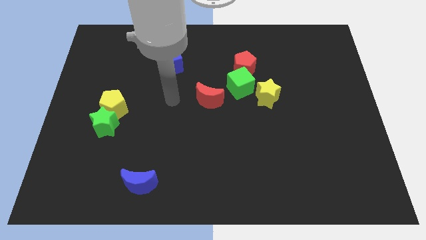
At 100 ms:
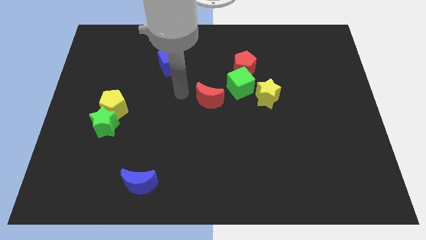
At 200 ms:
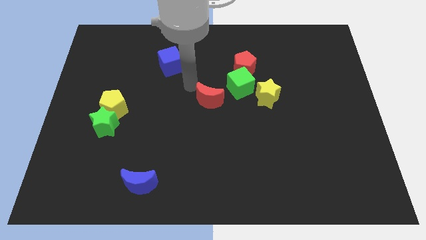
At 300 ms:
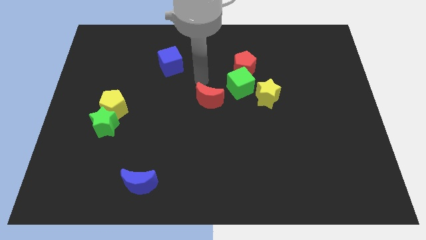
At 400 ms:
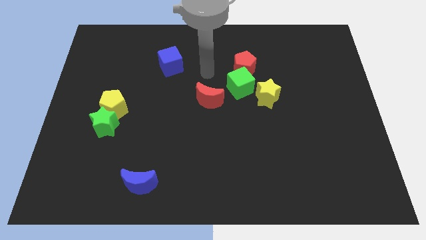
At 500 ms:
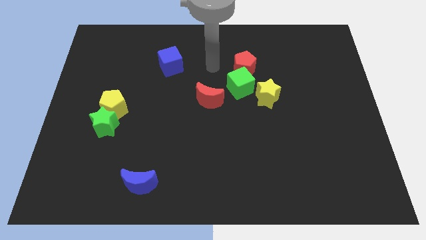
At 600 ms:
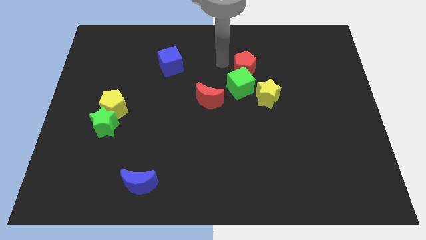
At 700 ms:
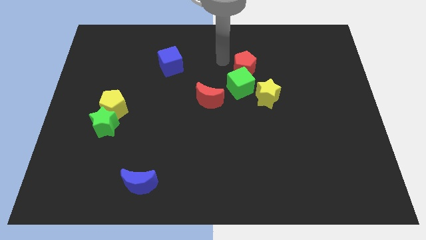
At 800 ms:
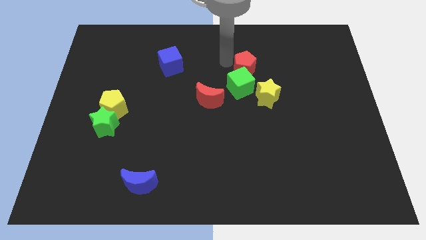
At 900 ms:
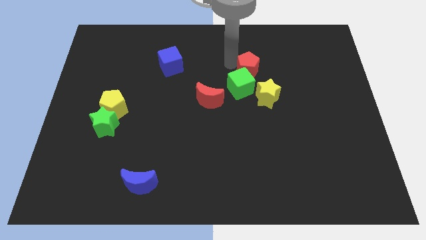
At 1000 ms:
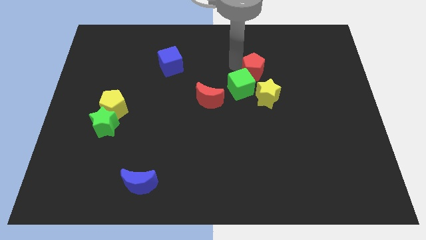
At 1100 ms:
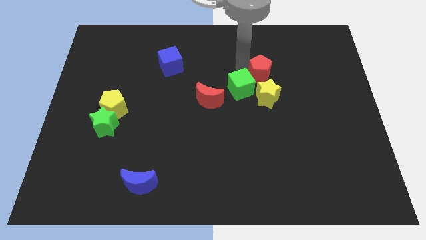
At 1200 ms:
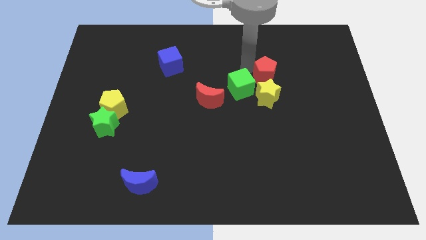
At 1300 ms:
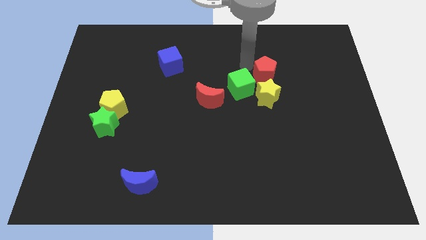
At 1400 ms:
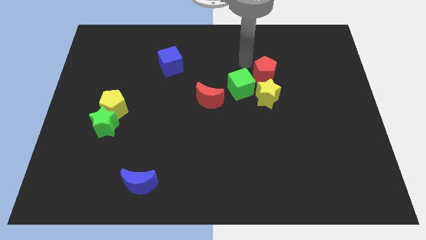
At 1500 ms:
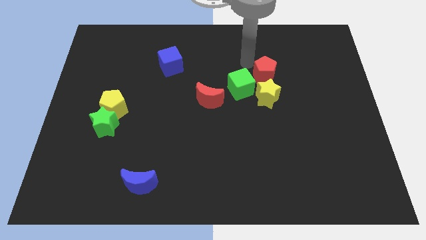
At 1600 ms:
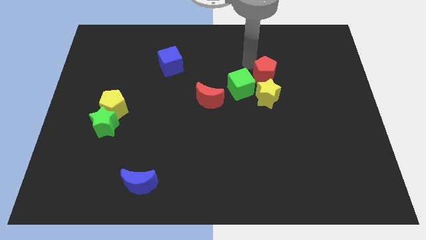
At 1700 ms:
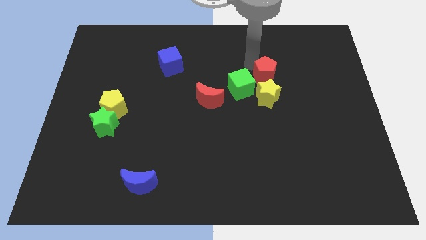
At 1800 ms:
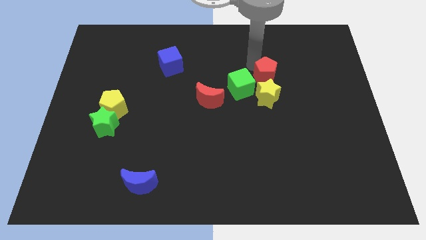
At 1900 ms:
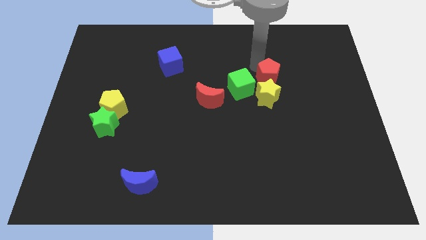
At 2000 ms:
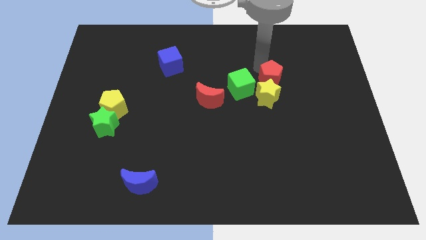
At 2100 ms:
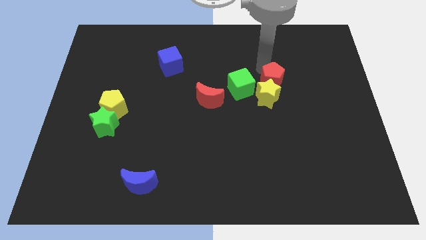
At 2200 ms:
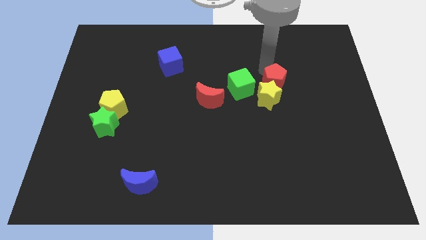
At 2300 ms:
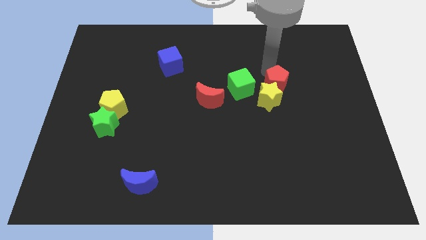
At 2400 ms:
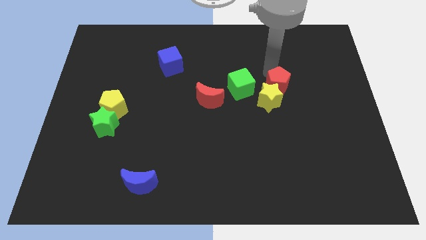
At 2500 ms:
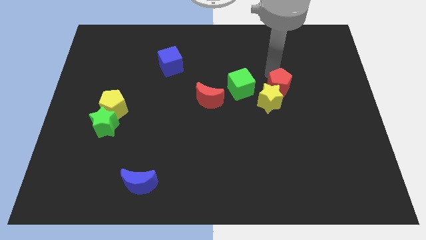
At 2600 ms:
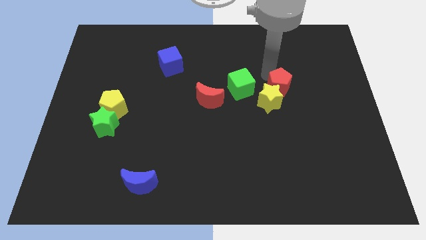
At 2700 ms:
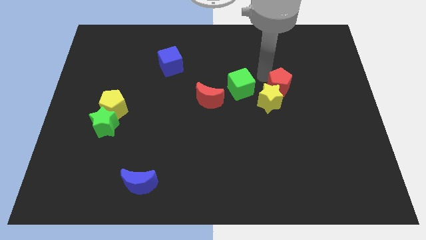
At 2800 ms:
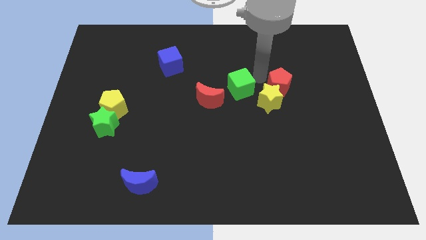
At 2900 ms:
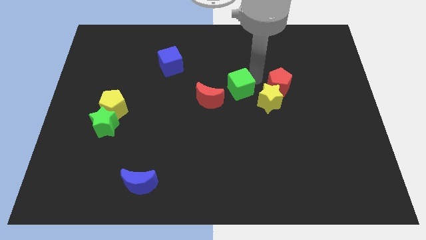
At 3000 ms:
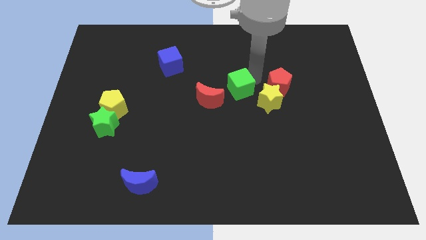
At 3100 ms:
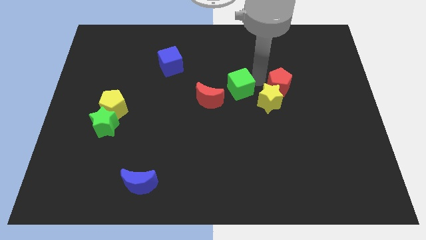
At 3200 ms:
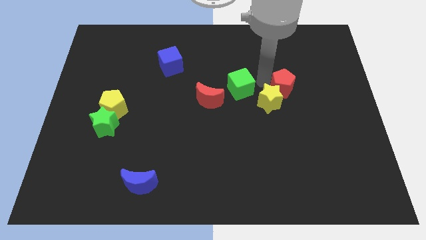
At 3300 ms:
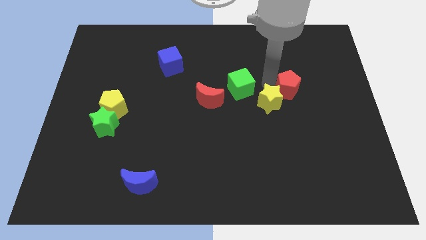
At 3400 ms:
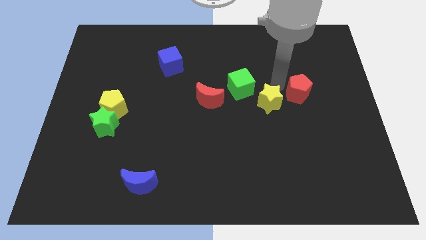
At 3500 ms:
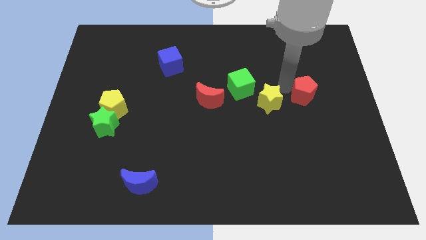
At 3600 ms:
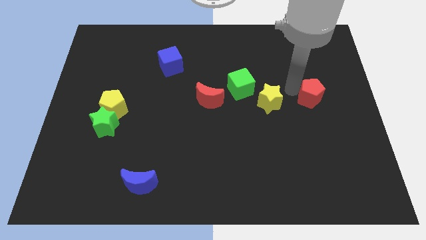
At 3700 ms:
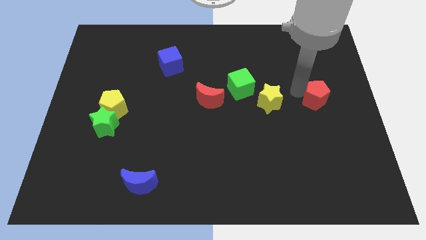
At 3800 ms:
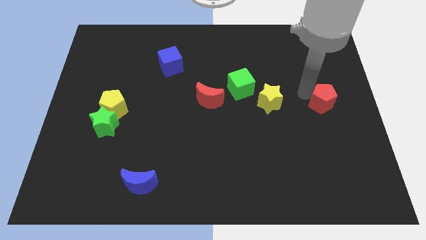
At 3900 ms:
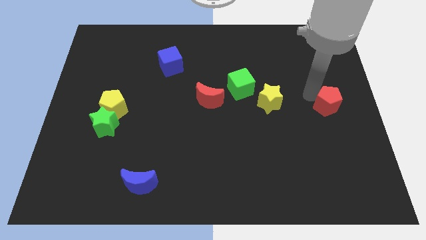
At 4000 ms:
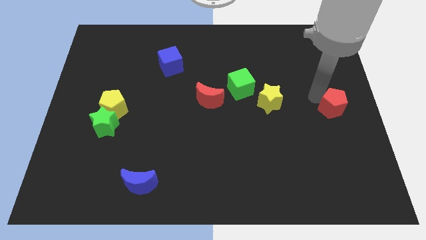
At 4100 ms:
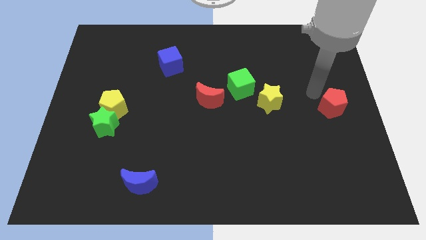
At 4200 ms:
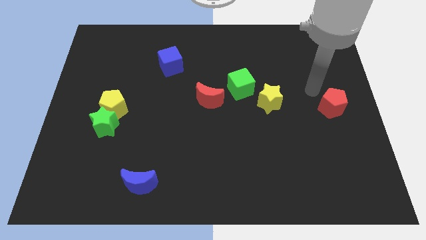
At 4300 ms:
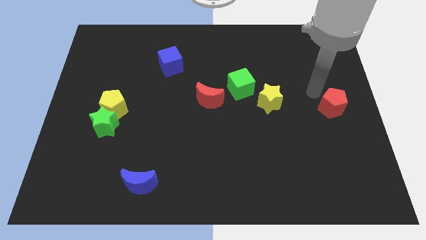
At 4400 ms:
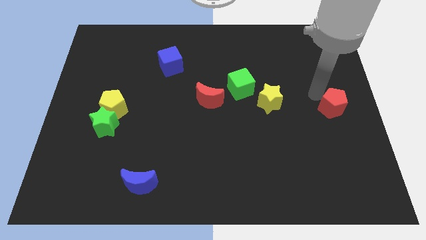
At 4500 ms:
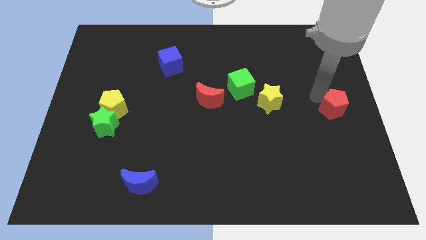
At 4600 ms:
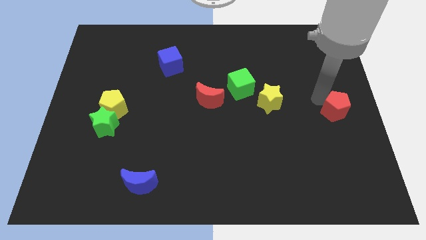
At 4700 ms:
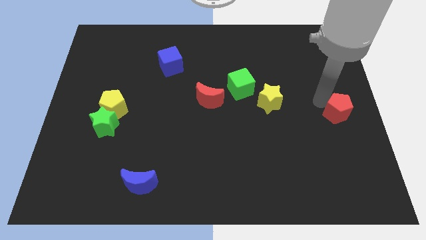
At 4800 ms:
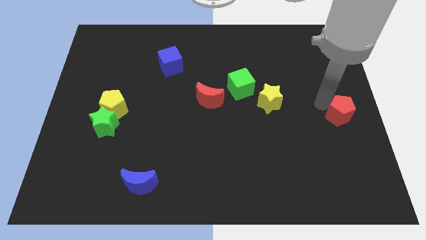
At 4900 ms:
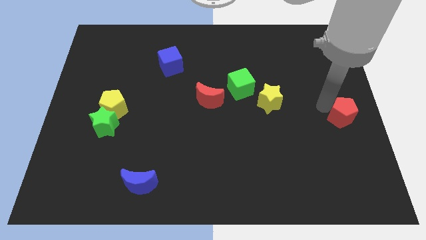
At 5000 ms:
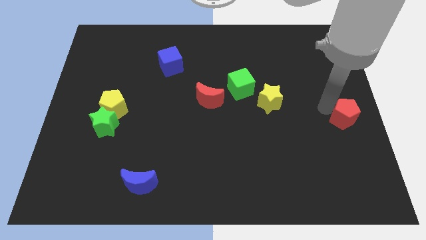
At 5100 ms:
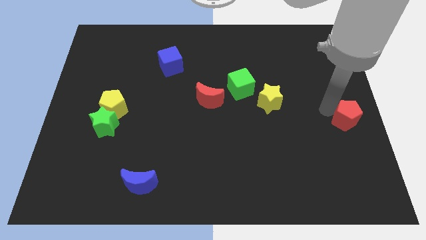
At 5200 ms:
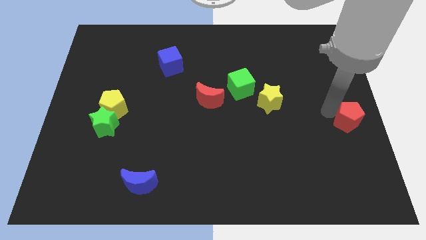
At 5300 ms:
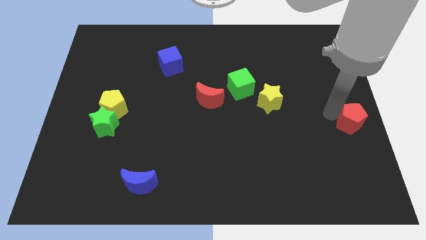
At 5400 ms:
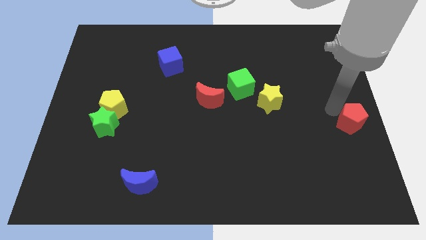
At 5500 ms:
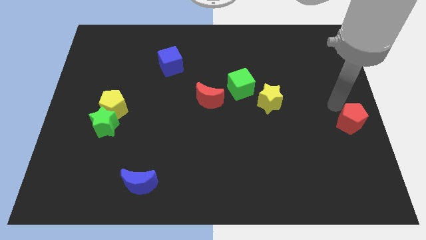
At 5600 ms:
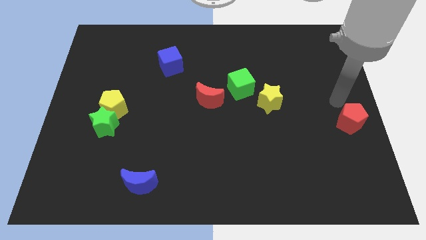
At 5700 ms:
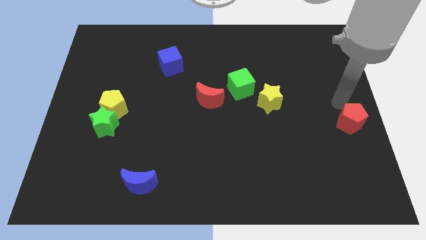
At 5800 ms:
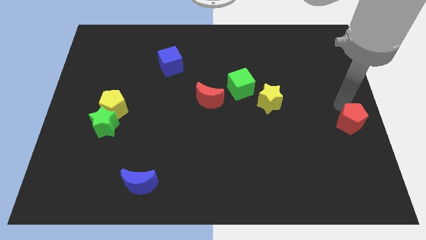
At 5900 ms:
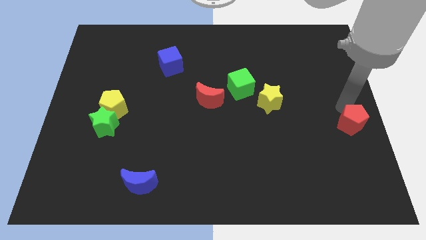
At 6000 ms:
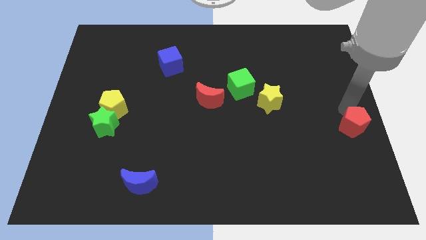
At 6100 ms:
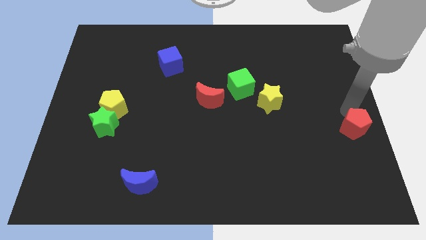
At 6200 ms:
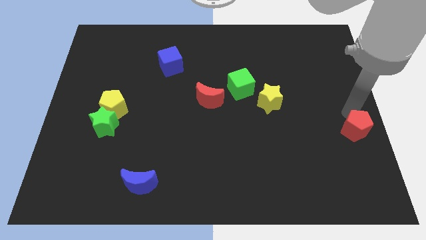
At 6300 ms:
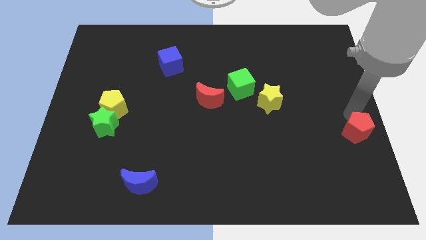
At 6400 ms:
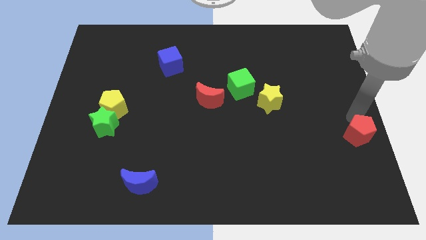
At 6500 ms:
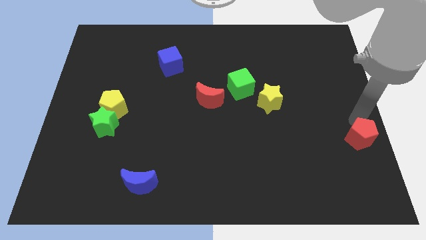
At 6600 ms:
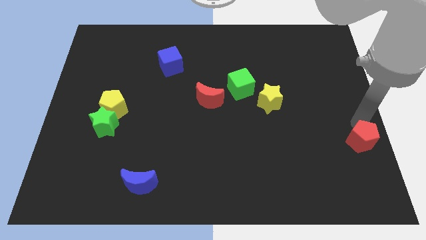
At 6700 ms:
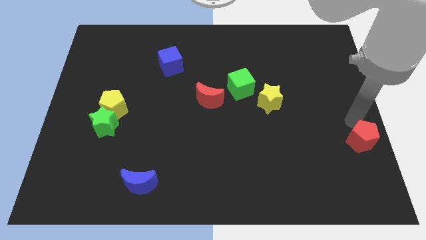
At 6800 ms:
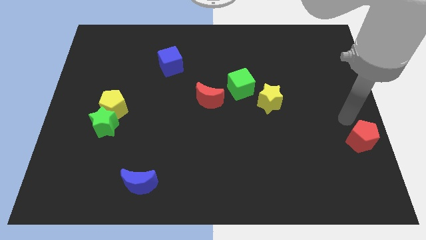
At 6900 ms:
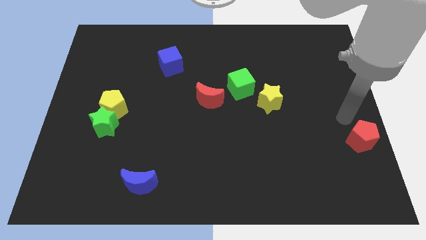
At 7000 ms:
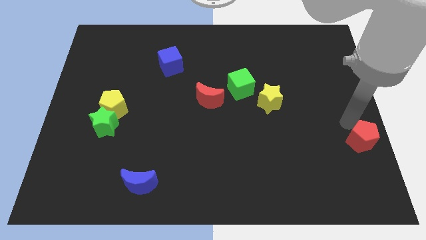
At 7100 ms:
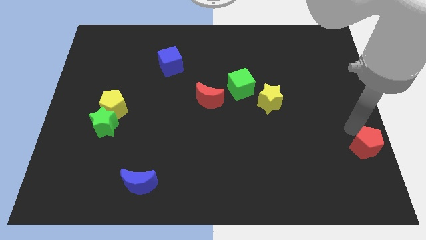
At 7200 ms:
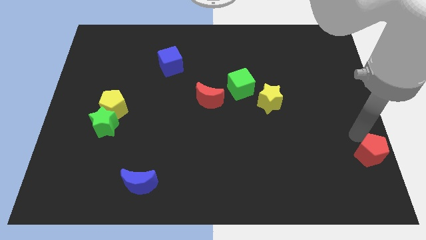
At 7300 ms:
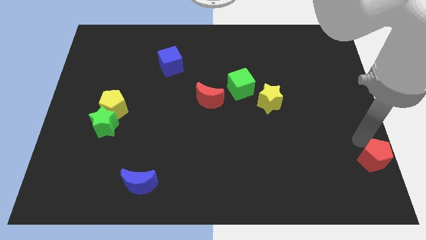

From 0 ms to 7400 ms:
slide the red pentagon to the bottom right
